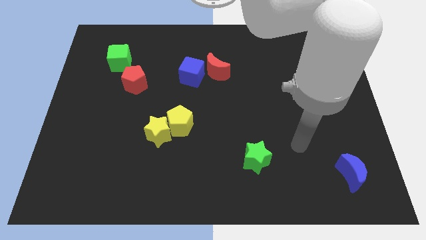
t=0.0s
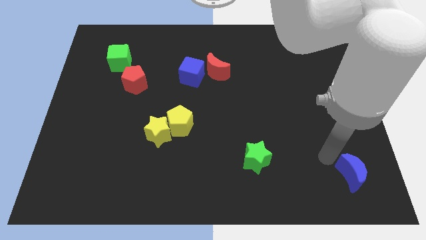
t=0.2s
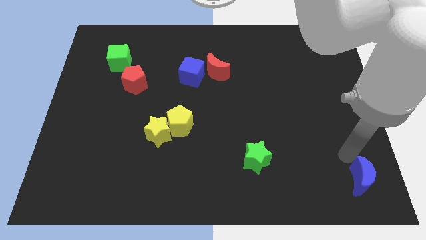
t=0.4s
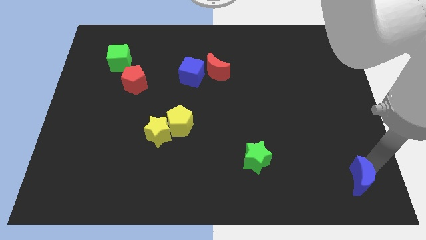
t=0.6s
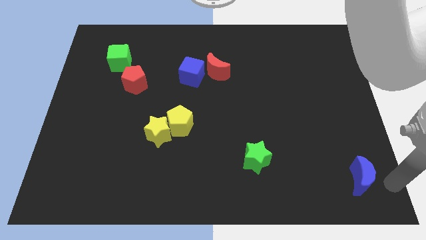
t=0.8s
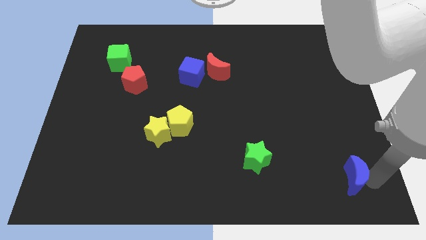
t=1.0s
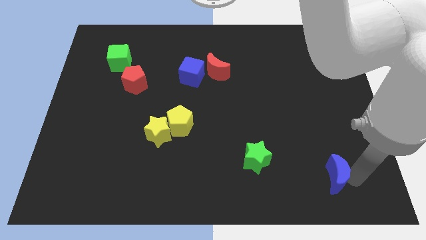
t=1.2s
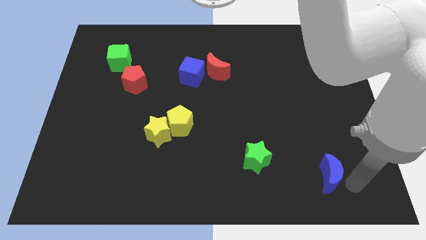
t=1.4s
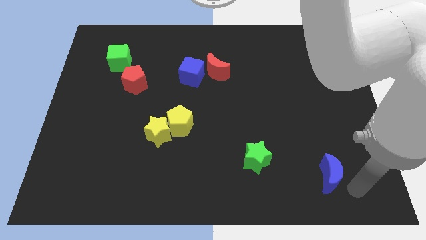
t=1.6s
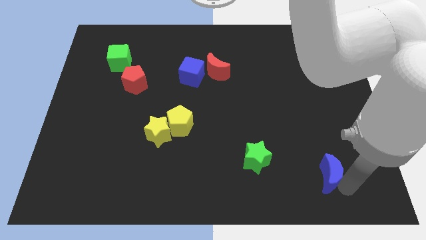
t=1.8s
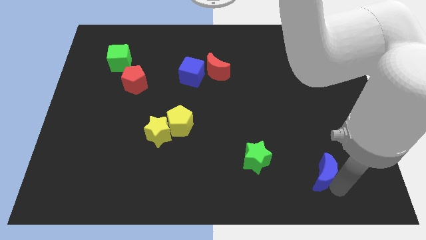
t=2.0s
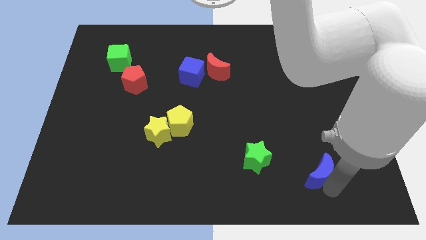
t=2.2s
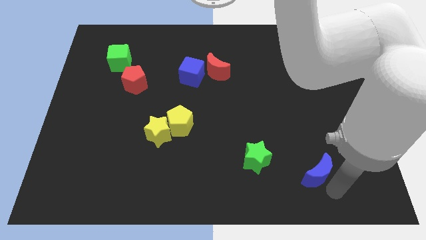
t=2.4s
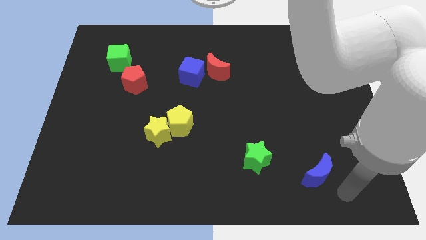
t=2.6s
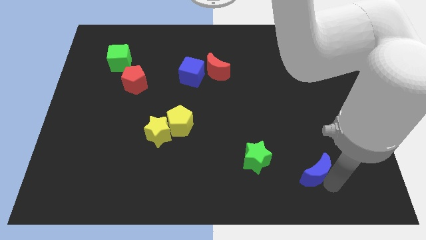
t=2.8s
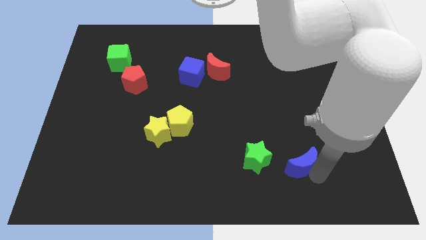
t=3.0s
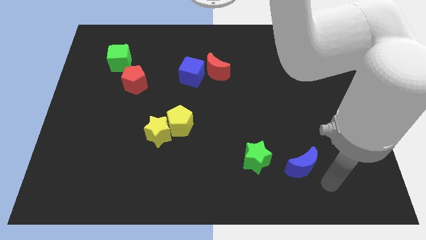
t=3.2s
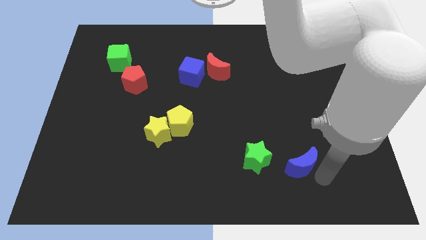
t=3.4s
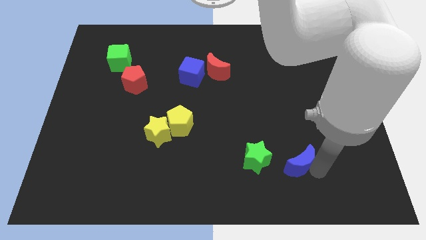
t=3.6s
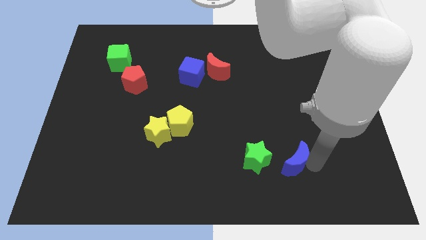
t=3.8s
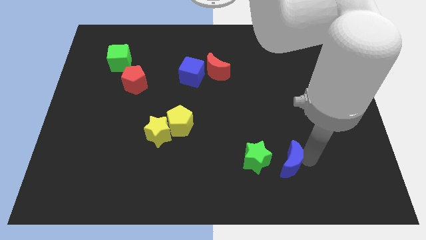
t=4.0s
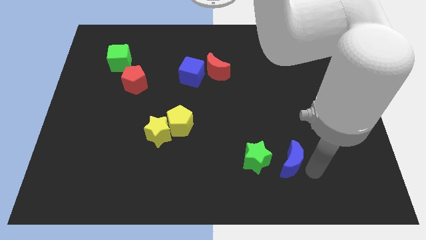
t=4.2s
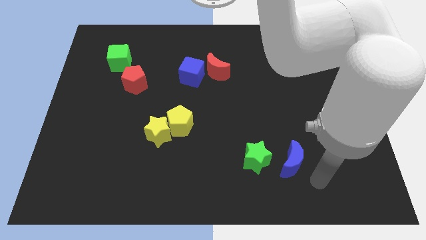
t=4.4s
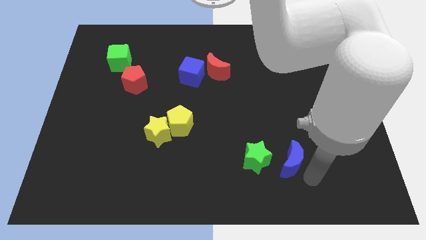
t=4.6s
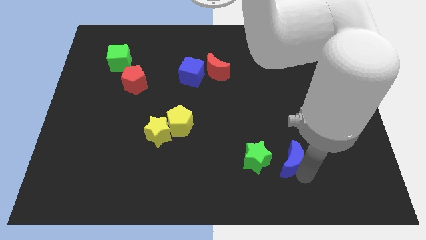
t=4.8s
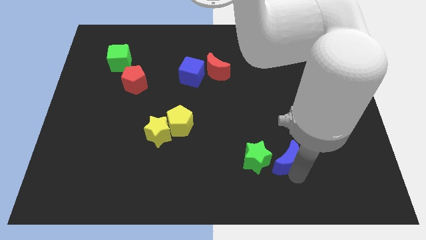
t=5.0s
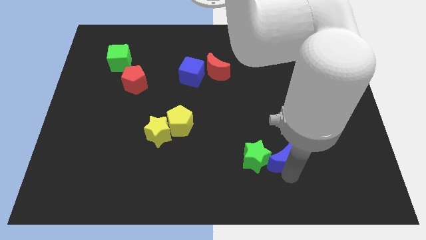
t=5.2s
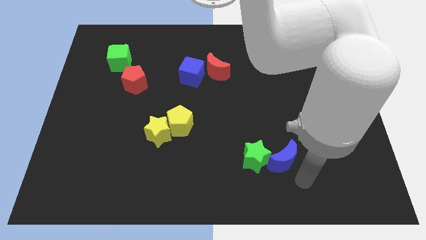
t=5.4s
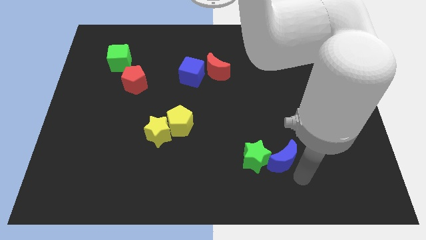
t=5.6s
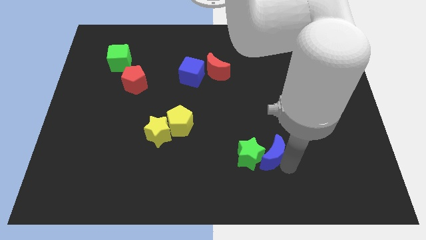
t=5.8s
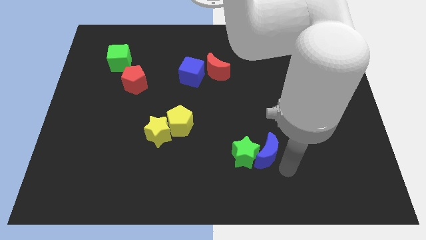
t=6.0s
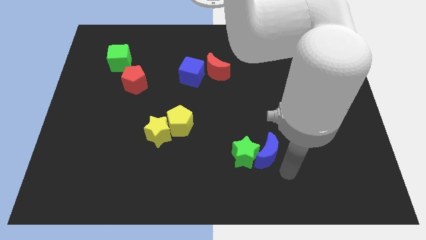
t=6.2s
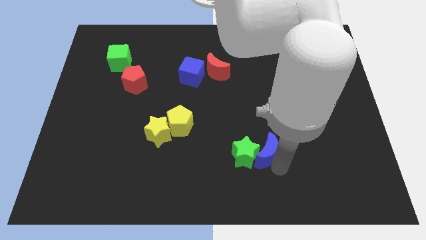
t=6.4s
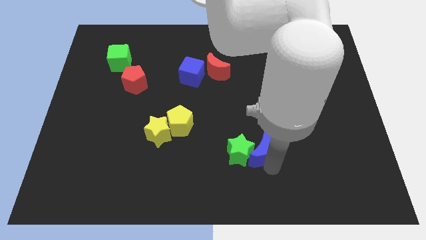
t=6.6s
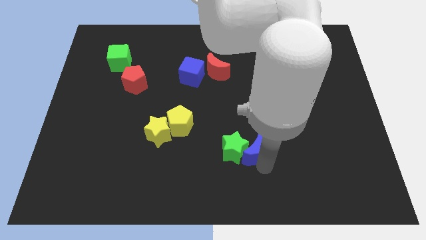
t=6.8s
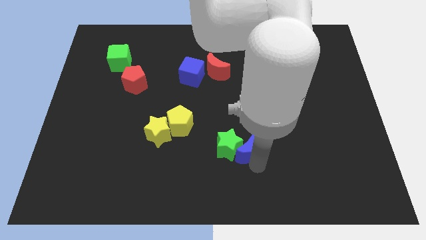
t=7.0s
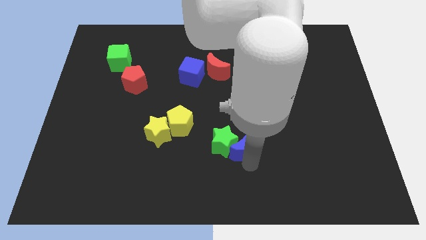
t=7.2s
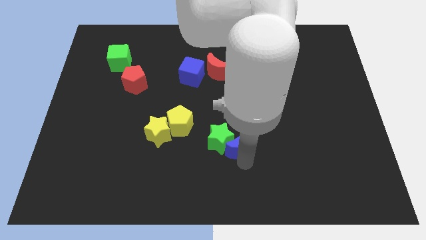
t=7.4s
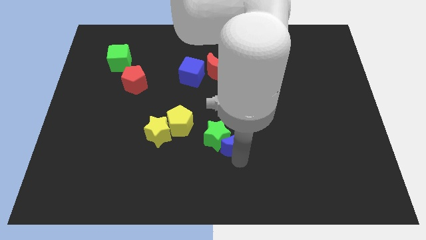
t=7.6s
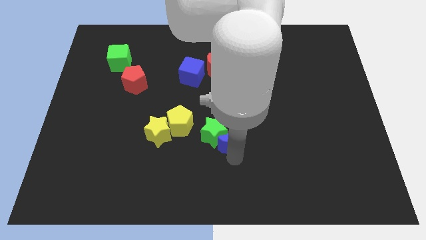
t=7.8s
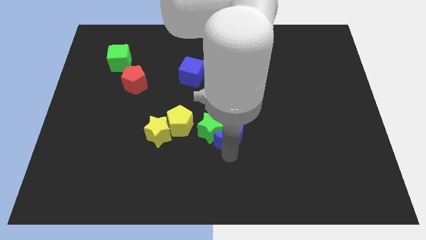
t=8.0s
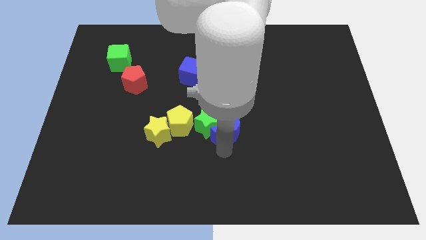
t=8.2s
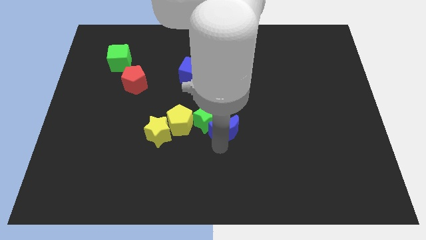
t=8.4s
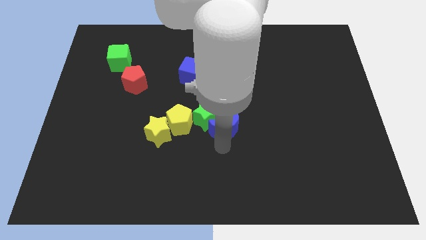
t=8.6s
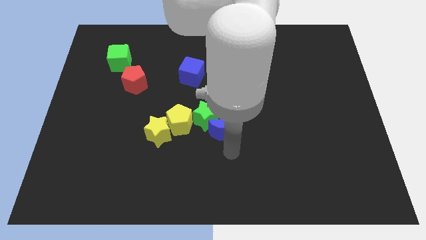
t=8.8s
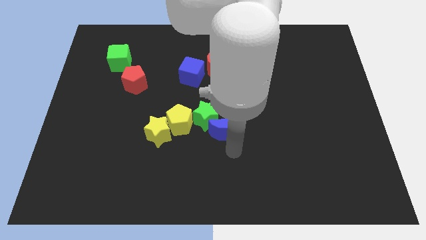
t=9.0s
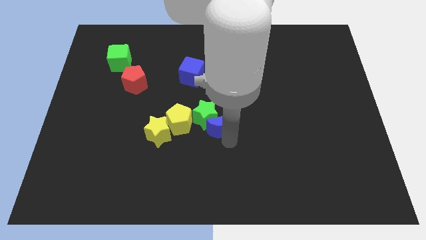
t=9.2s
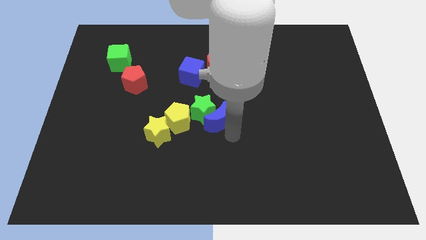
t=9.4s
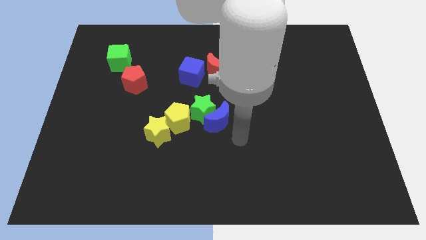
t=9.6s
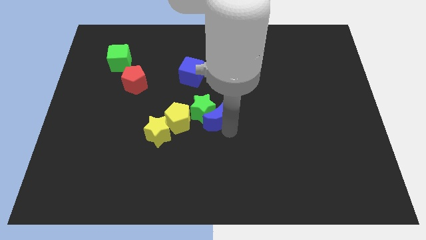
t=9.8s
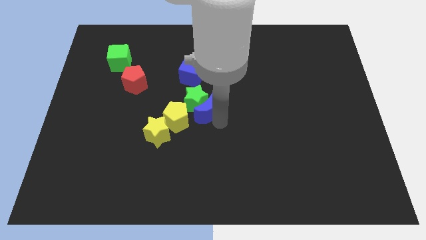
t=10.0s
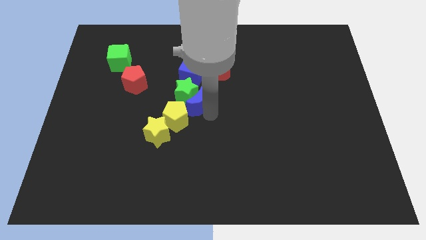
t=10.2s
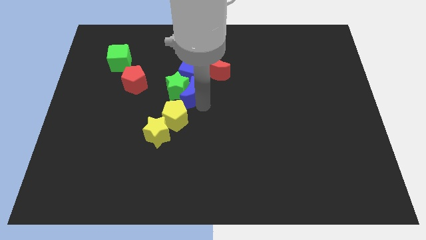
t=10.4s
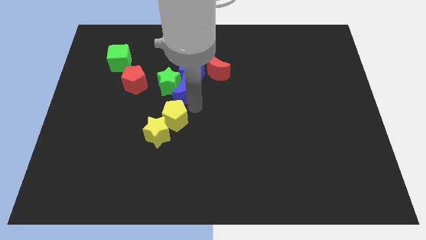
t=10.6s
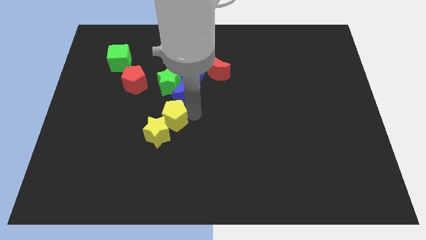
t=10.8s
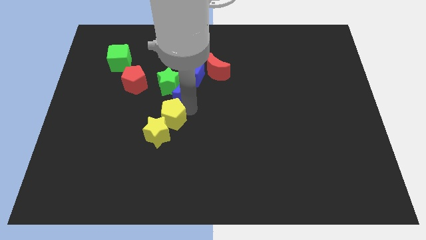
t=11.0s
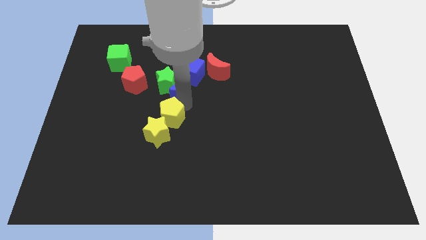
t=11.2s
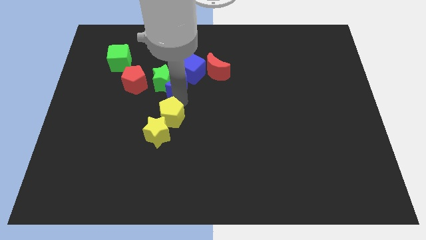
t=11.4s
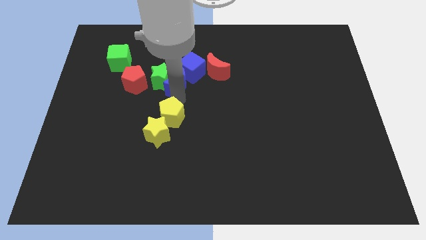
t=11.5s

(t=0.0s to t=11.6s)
put the blue moon to the left of the red moon

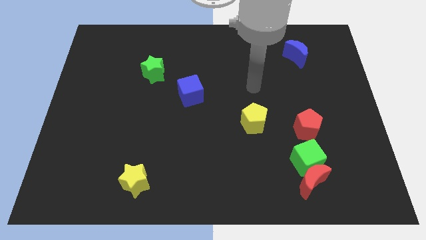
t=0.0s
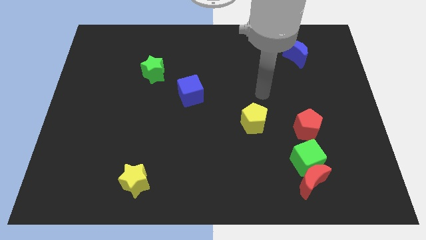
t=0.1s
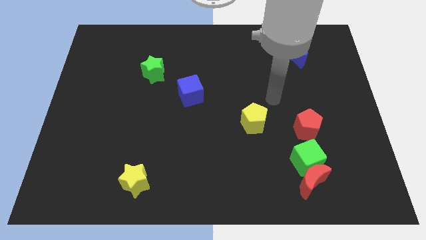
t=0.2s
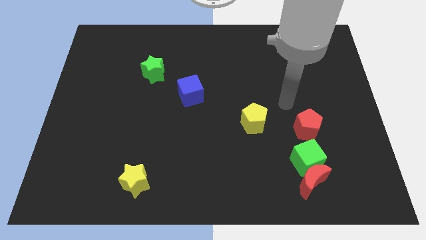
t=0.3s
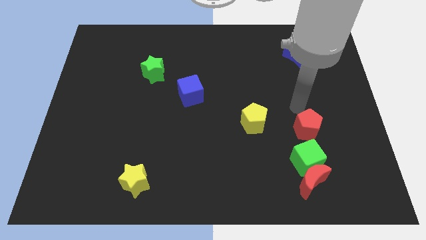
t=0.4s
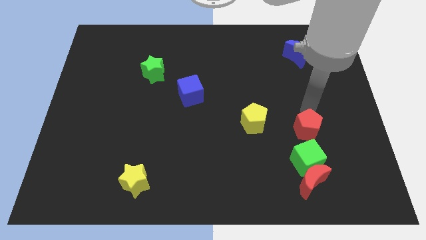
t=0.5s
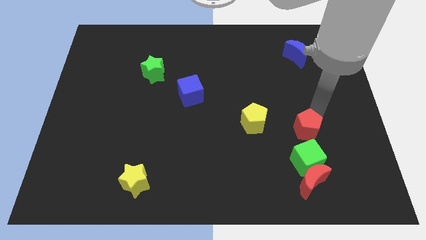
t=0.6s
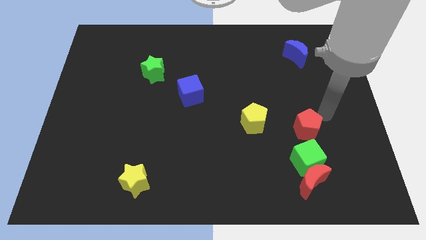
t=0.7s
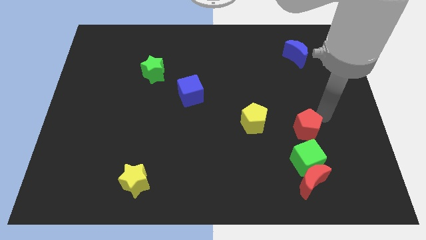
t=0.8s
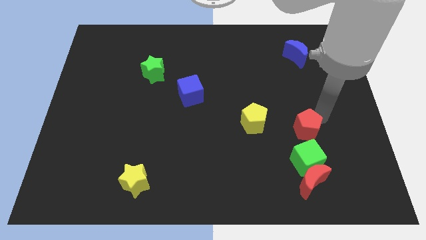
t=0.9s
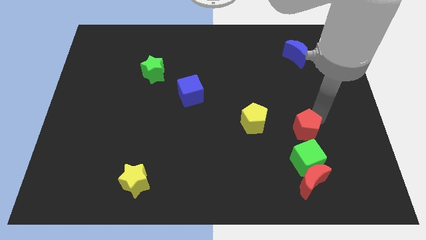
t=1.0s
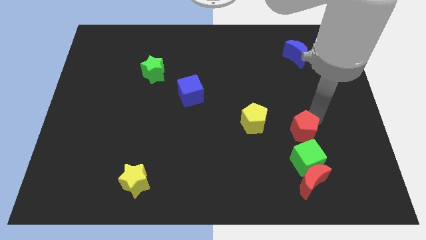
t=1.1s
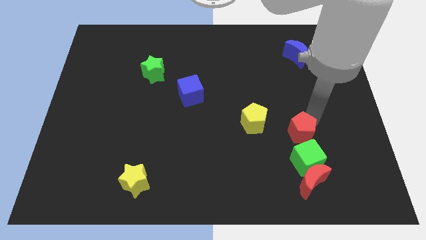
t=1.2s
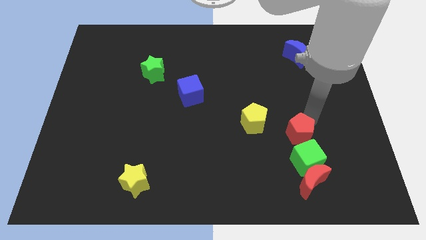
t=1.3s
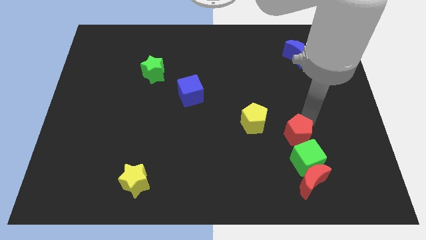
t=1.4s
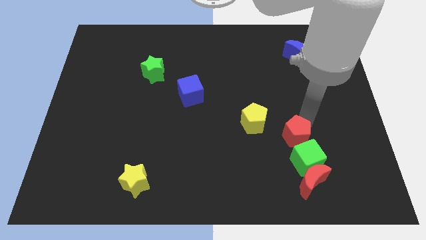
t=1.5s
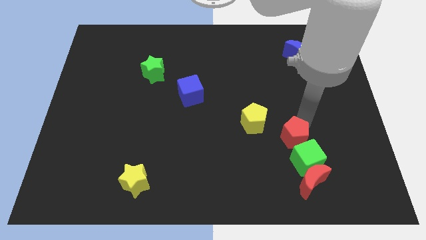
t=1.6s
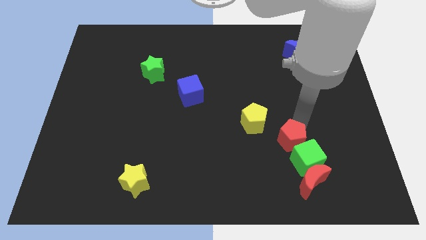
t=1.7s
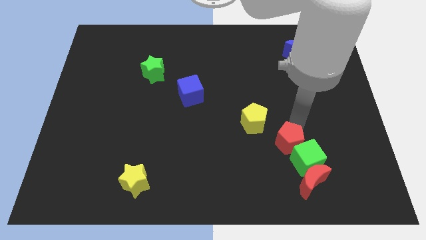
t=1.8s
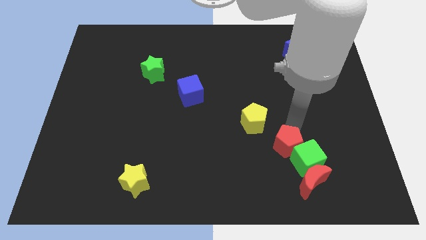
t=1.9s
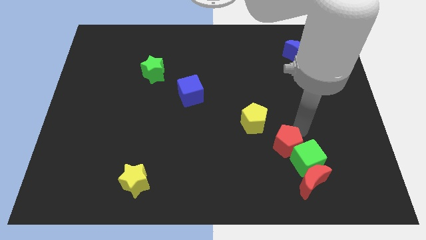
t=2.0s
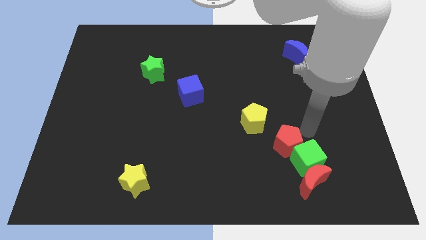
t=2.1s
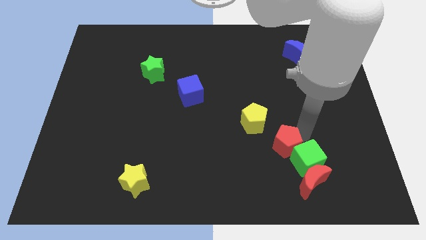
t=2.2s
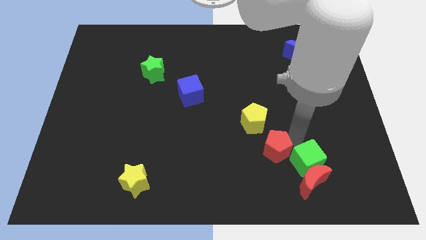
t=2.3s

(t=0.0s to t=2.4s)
push the red pentagon to the bottom of the yellow pentagon
